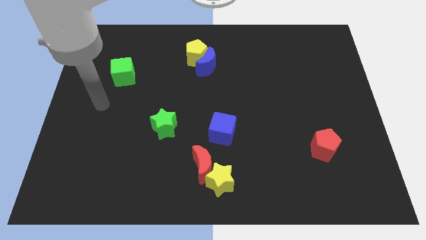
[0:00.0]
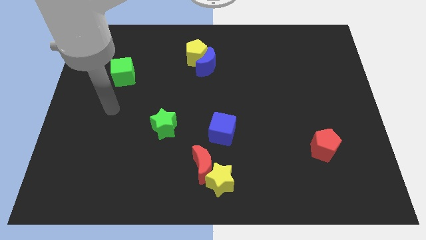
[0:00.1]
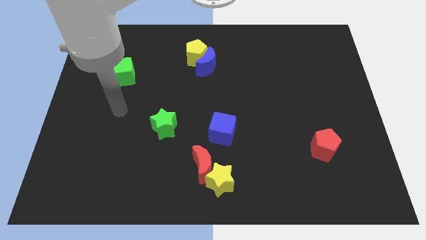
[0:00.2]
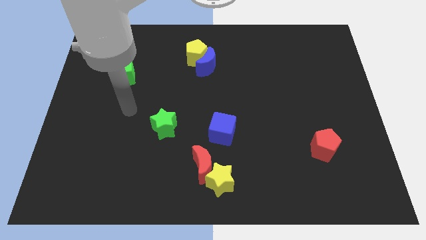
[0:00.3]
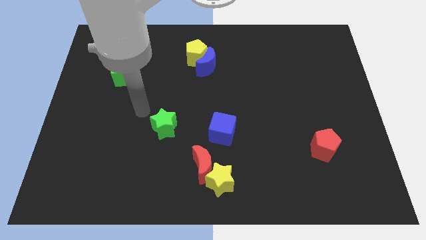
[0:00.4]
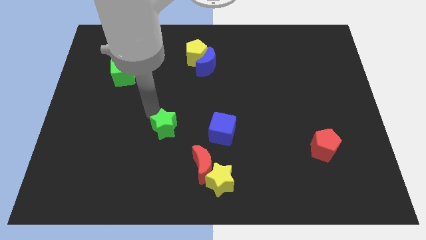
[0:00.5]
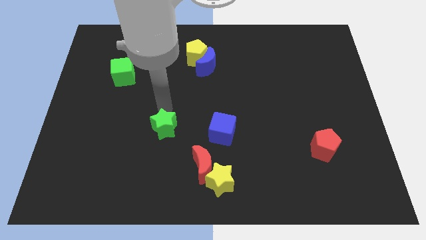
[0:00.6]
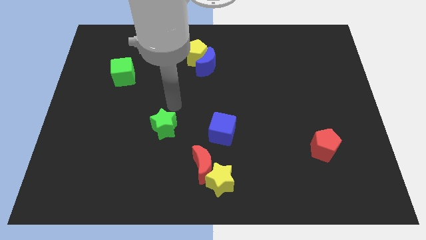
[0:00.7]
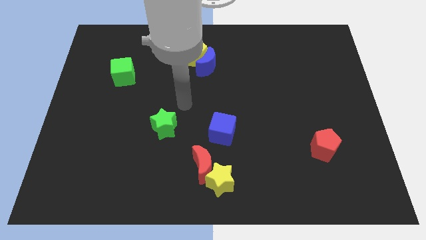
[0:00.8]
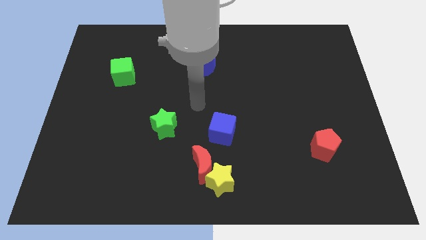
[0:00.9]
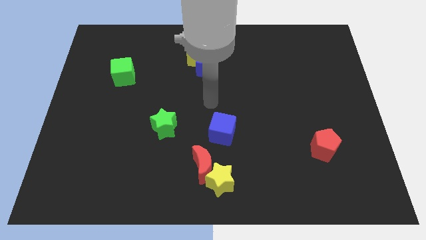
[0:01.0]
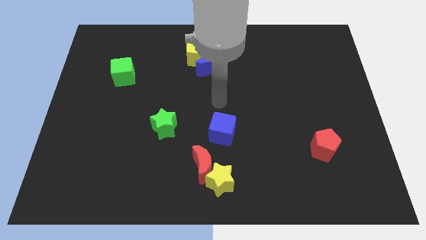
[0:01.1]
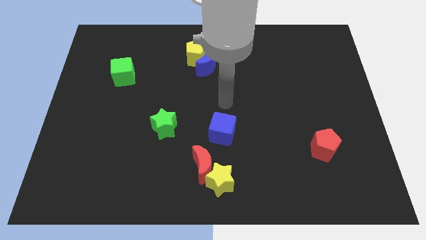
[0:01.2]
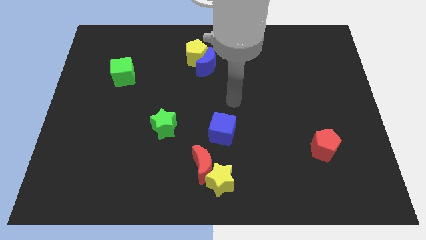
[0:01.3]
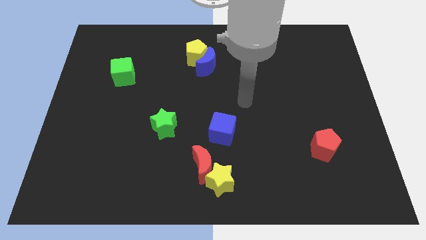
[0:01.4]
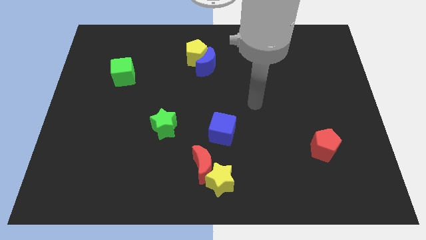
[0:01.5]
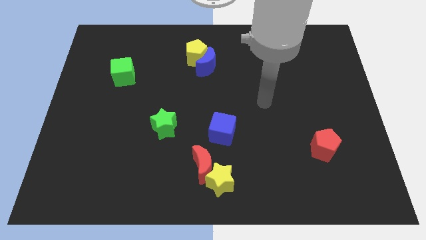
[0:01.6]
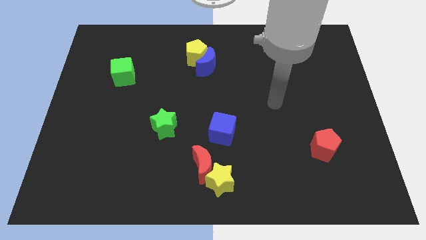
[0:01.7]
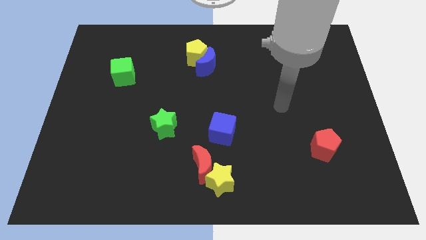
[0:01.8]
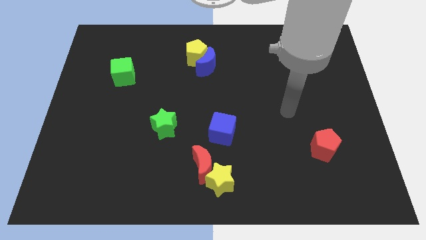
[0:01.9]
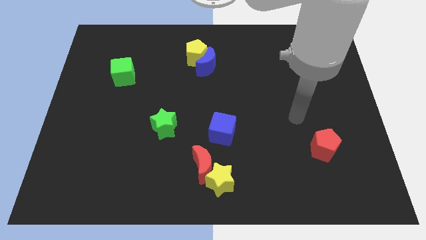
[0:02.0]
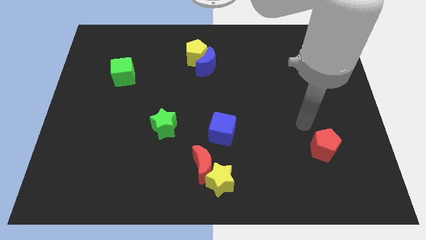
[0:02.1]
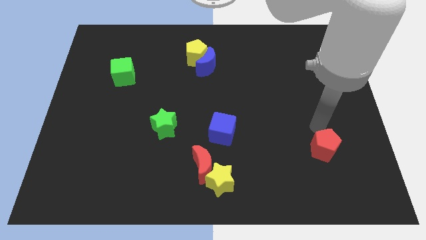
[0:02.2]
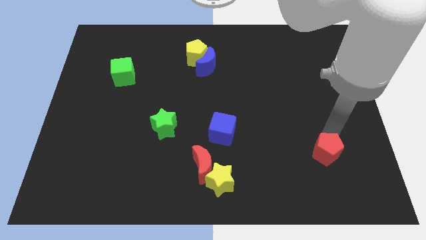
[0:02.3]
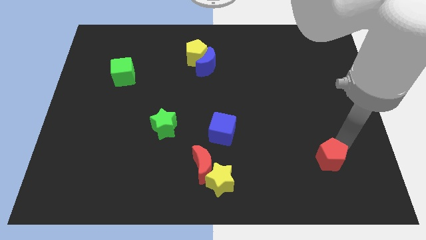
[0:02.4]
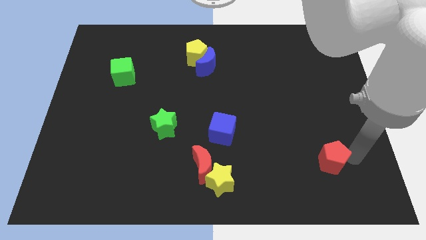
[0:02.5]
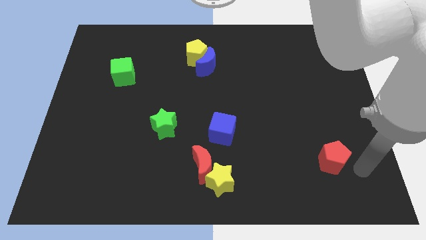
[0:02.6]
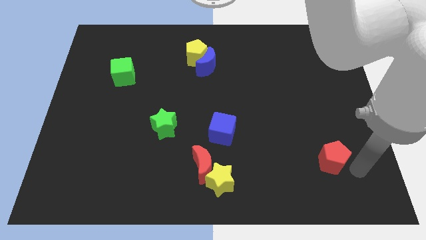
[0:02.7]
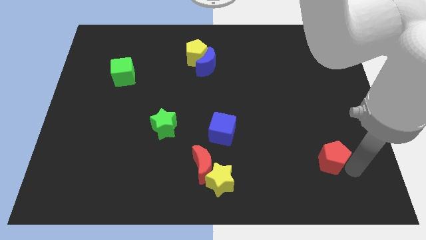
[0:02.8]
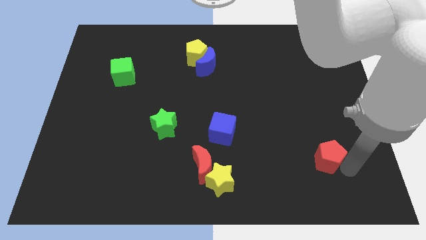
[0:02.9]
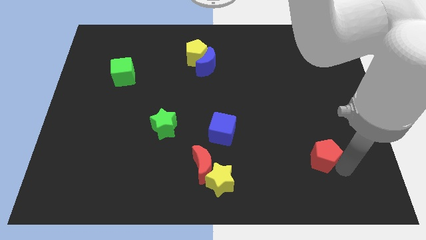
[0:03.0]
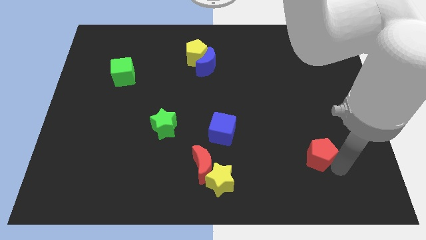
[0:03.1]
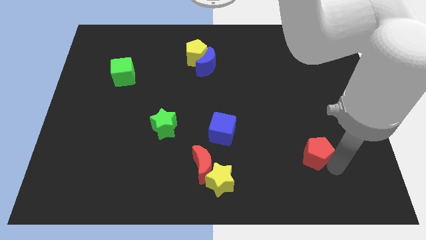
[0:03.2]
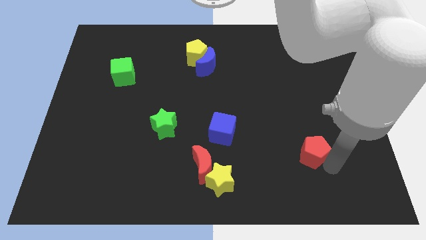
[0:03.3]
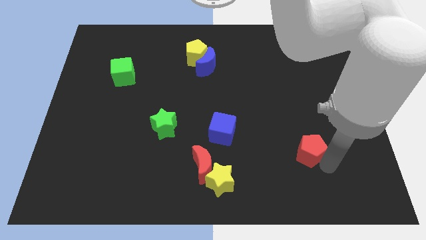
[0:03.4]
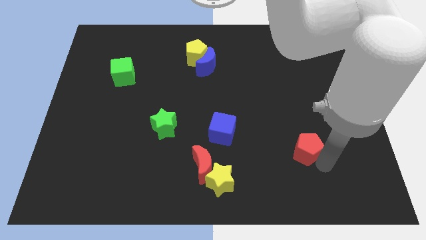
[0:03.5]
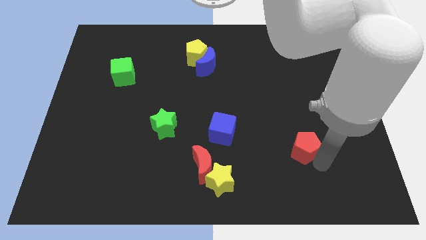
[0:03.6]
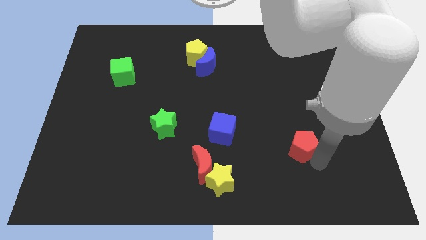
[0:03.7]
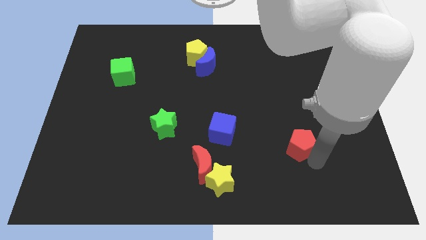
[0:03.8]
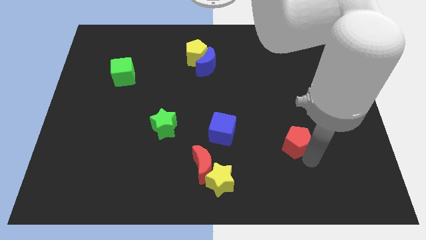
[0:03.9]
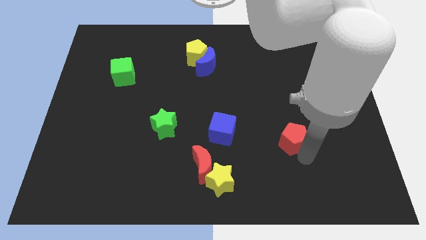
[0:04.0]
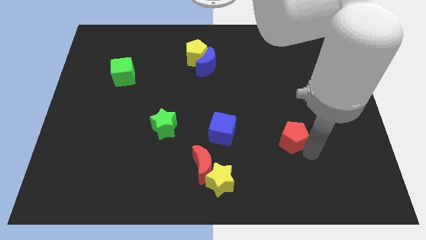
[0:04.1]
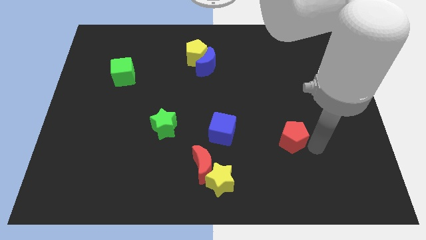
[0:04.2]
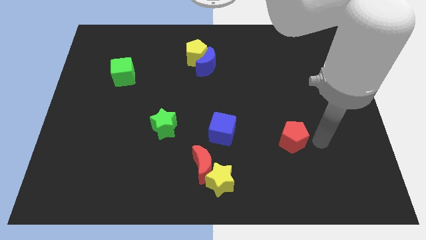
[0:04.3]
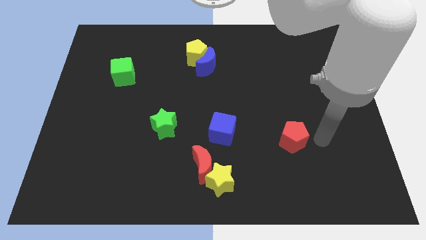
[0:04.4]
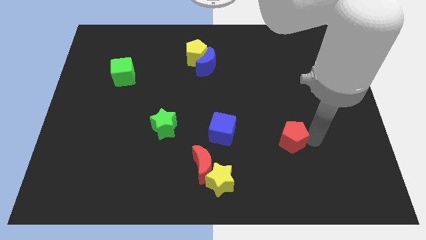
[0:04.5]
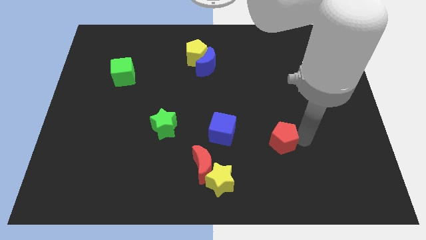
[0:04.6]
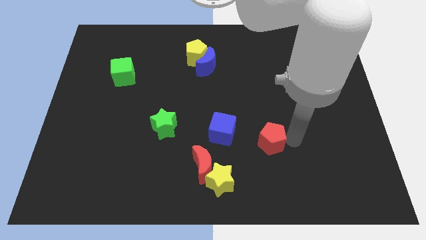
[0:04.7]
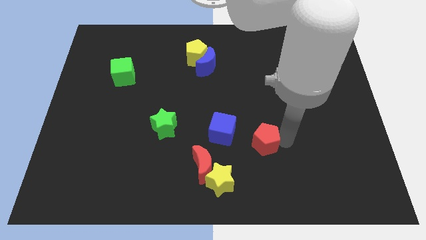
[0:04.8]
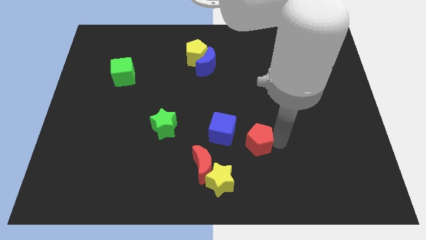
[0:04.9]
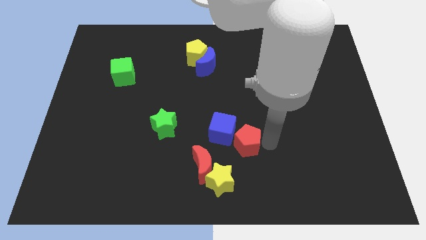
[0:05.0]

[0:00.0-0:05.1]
move the red pentagon to the blue cube
